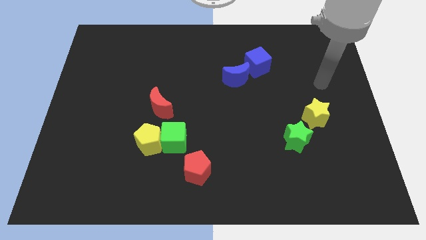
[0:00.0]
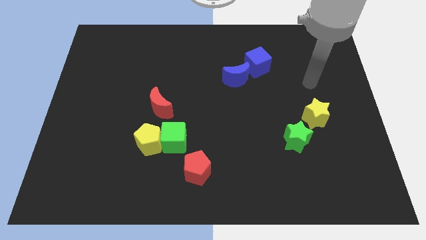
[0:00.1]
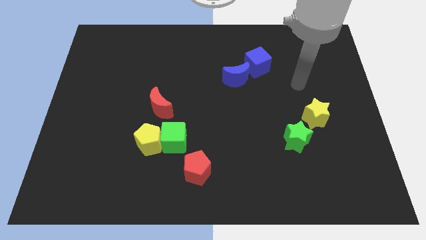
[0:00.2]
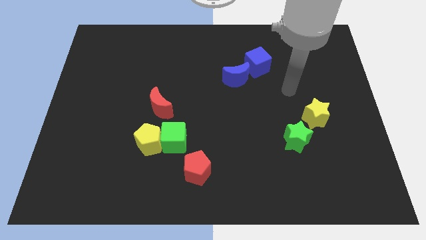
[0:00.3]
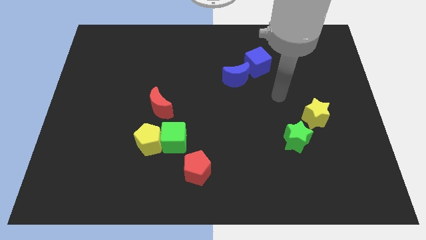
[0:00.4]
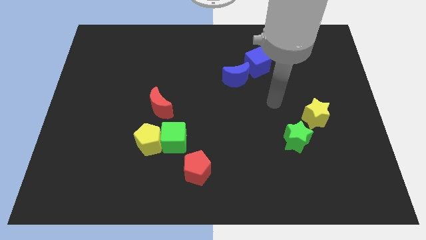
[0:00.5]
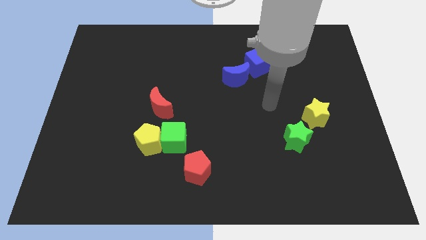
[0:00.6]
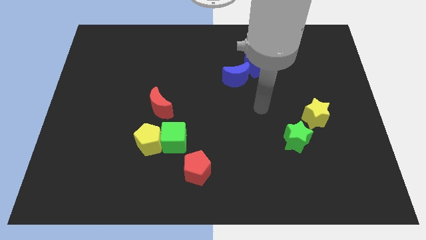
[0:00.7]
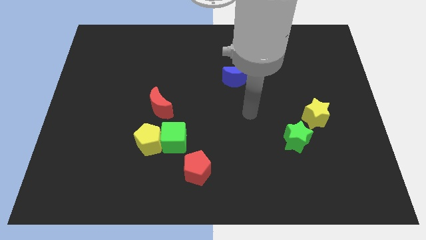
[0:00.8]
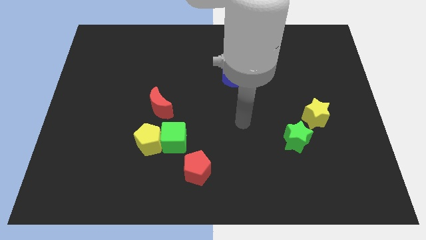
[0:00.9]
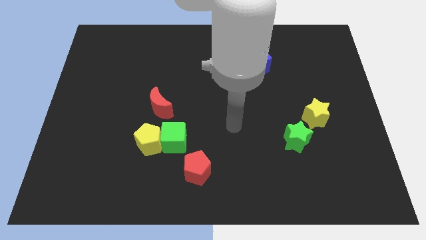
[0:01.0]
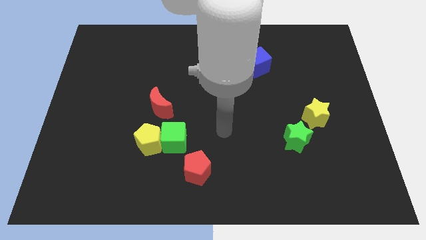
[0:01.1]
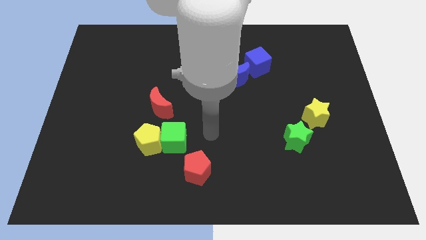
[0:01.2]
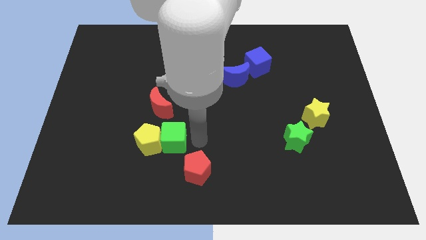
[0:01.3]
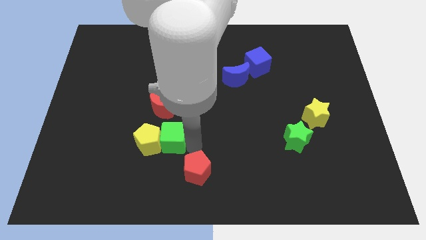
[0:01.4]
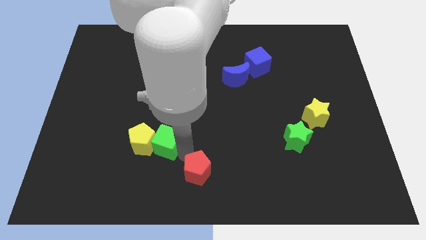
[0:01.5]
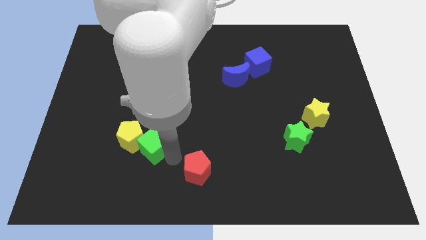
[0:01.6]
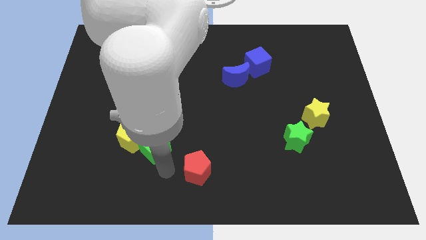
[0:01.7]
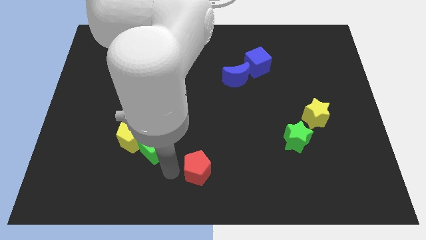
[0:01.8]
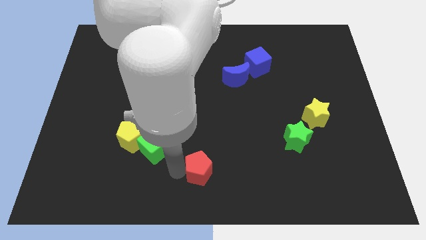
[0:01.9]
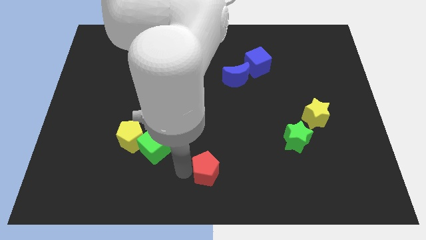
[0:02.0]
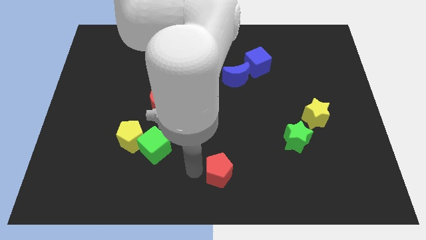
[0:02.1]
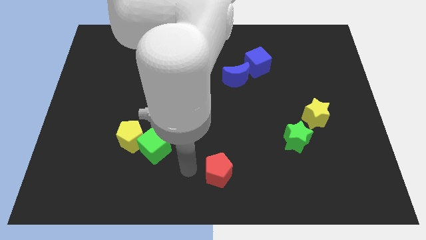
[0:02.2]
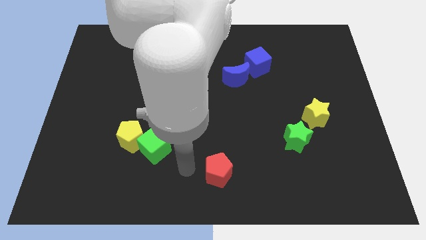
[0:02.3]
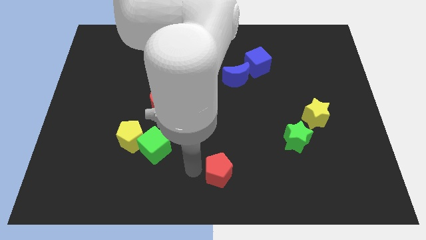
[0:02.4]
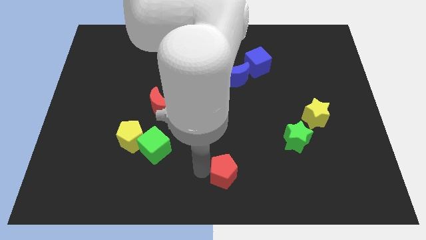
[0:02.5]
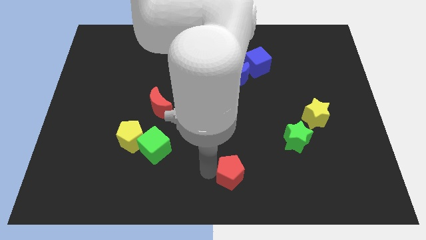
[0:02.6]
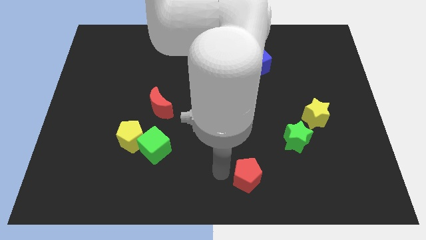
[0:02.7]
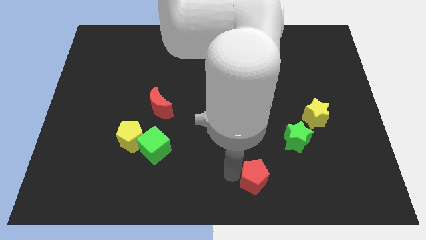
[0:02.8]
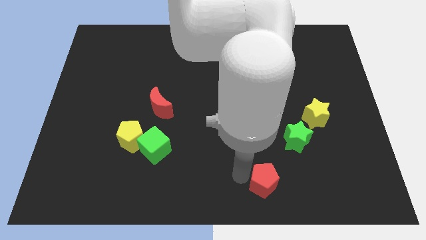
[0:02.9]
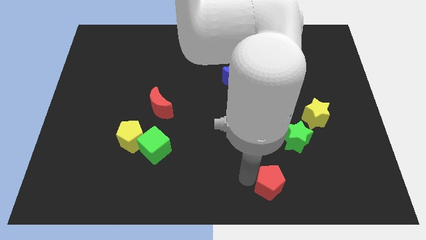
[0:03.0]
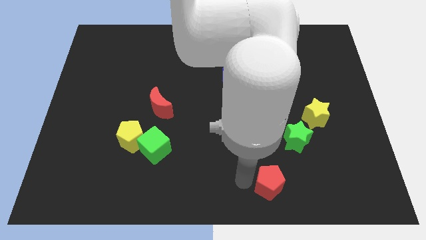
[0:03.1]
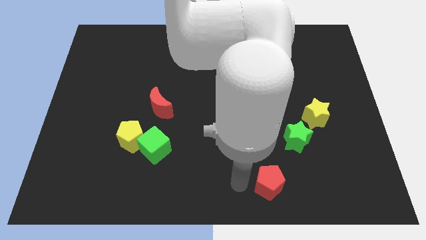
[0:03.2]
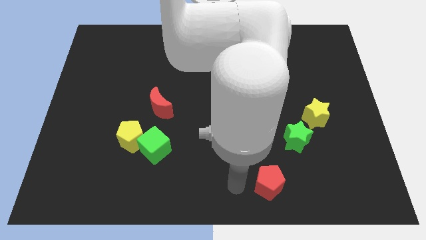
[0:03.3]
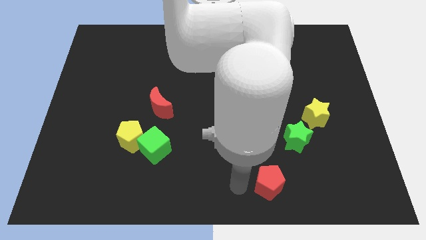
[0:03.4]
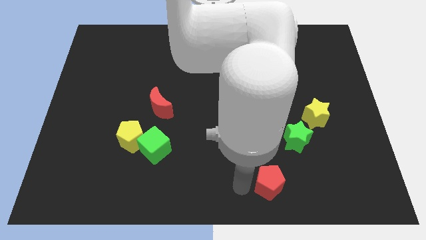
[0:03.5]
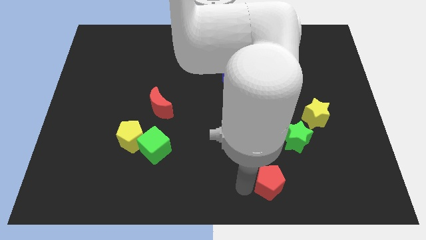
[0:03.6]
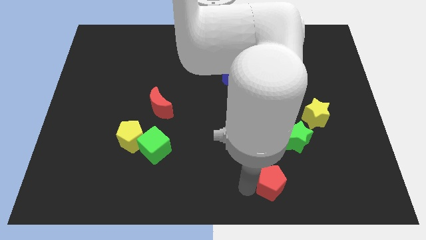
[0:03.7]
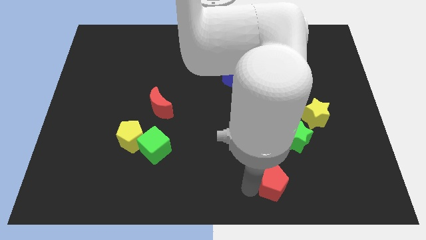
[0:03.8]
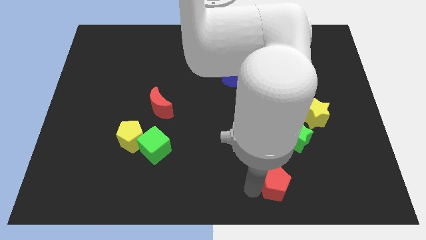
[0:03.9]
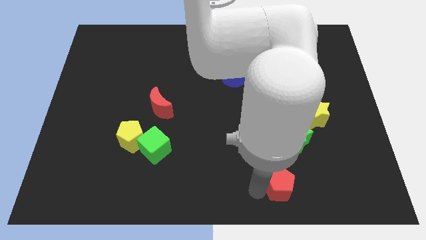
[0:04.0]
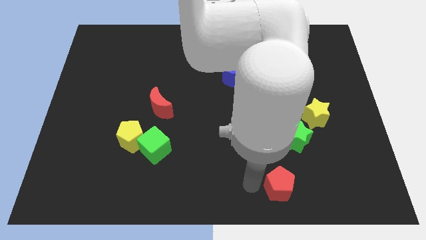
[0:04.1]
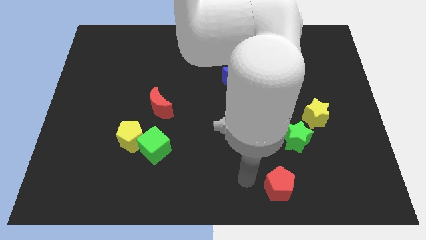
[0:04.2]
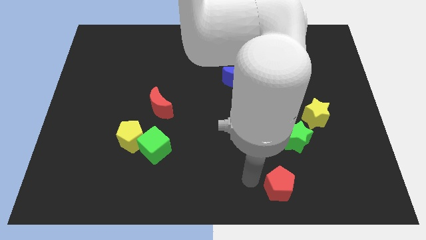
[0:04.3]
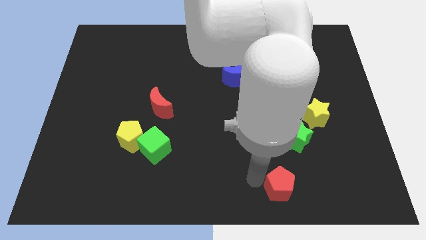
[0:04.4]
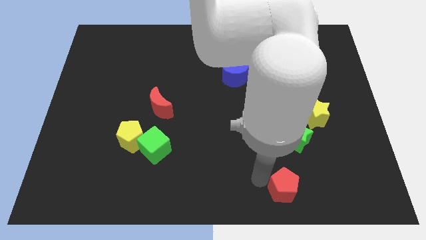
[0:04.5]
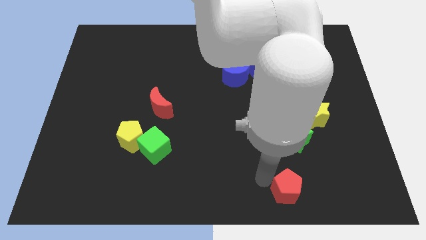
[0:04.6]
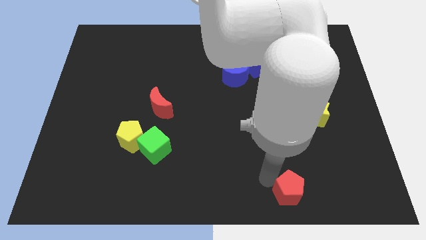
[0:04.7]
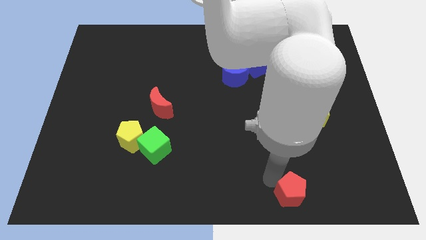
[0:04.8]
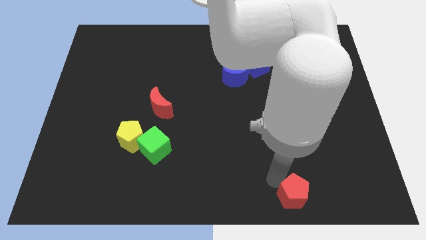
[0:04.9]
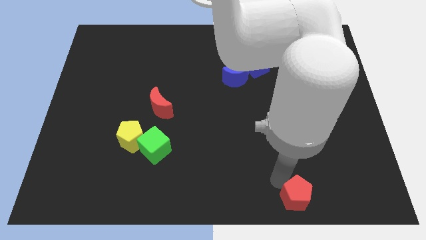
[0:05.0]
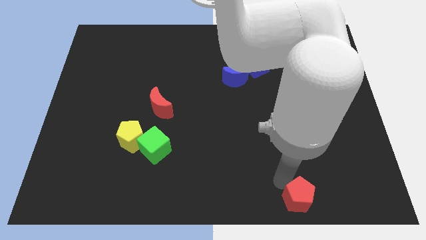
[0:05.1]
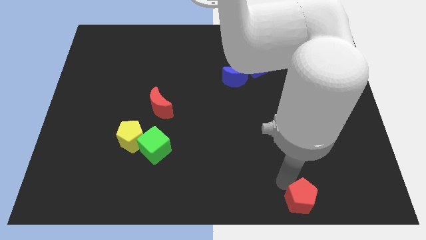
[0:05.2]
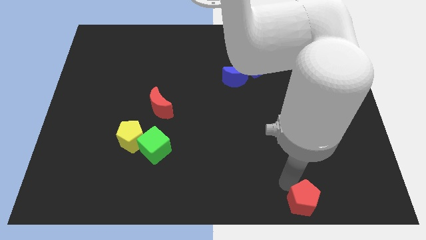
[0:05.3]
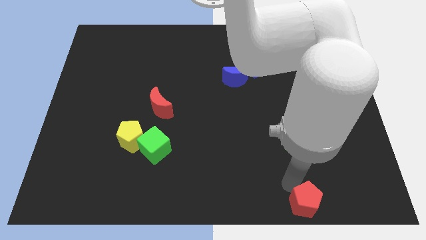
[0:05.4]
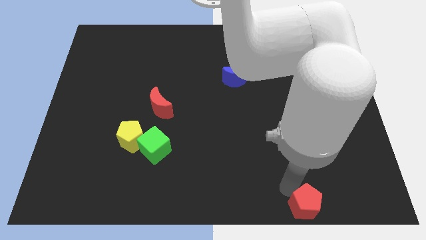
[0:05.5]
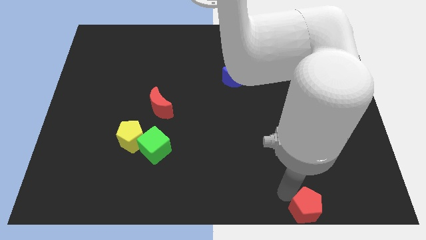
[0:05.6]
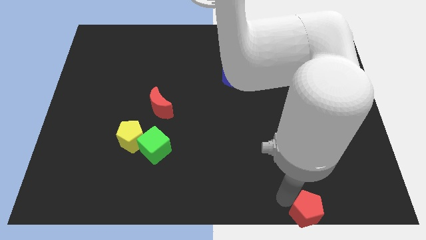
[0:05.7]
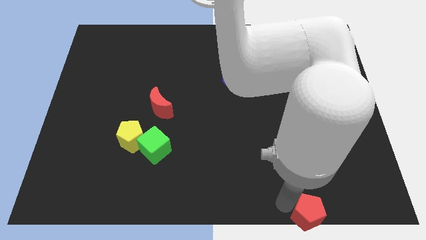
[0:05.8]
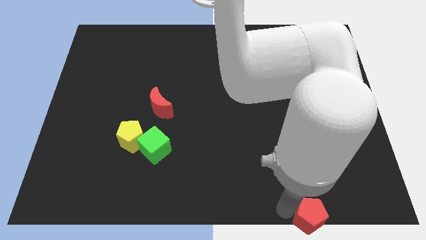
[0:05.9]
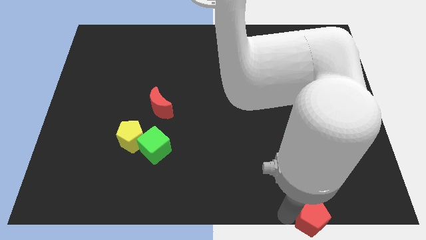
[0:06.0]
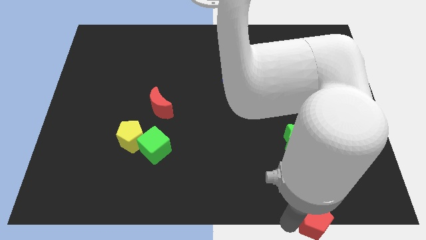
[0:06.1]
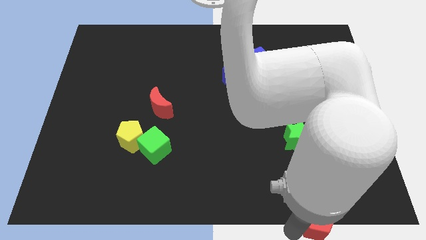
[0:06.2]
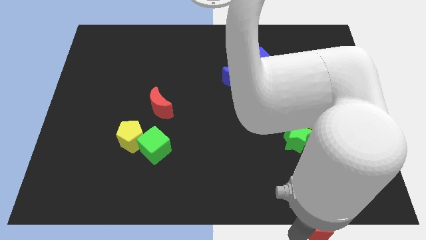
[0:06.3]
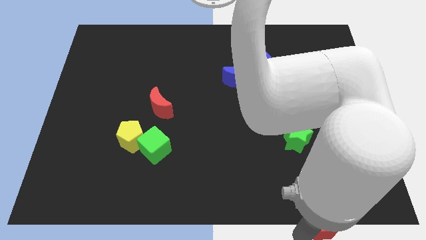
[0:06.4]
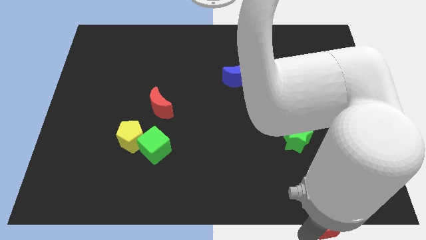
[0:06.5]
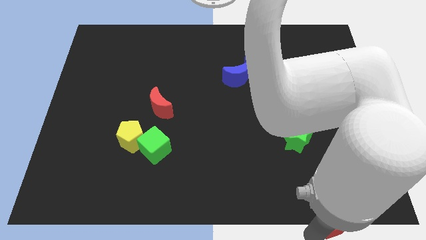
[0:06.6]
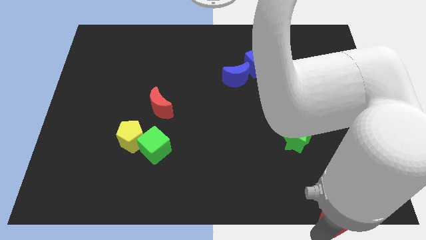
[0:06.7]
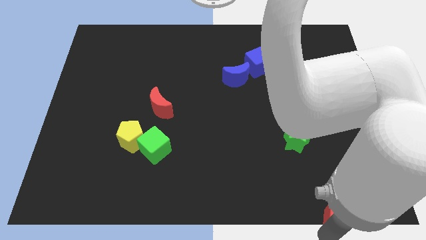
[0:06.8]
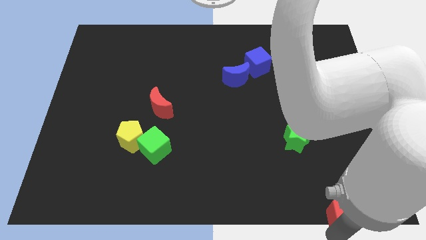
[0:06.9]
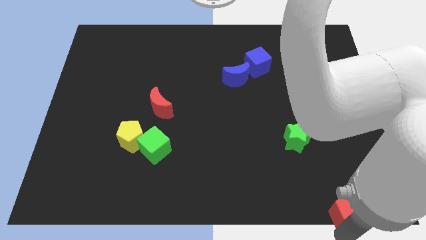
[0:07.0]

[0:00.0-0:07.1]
put the red pentagon to the bottom right corner
